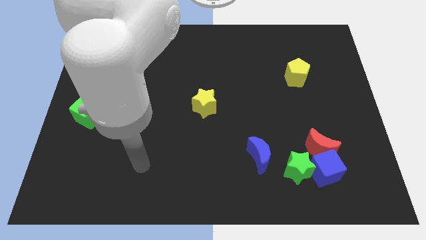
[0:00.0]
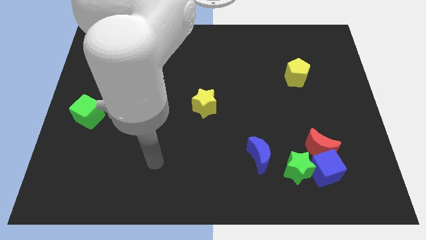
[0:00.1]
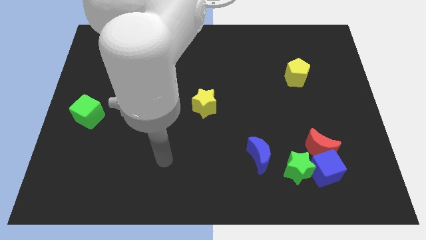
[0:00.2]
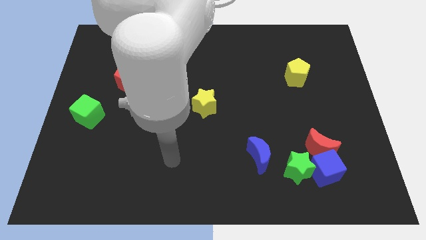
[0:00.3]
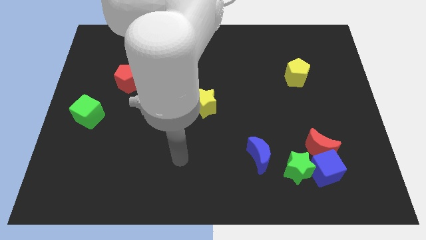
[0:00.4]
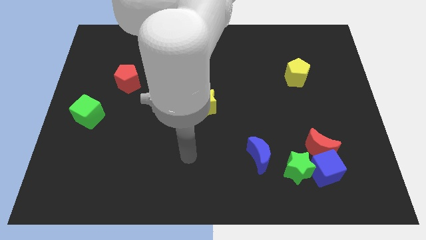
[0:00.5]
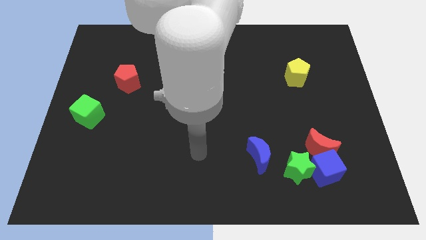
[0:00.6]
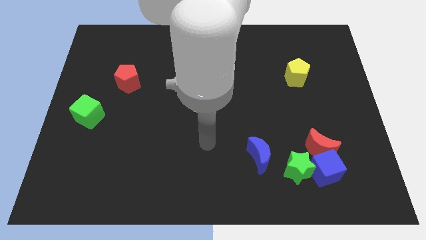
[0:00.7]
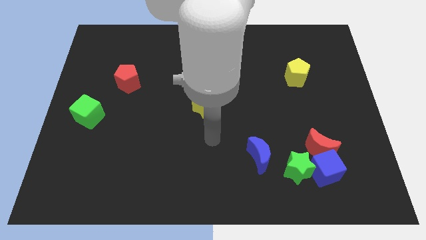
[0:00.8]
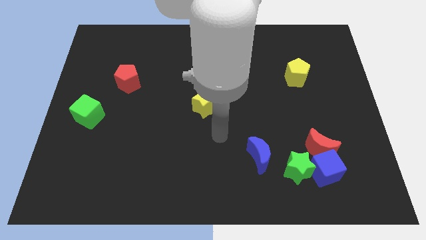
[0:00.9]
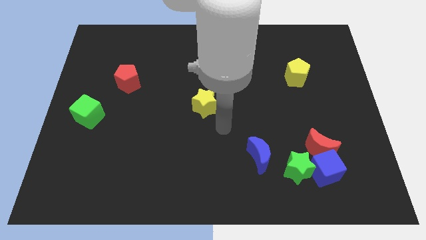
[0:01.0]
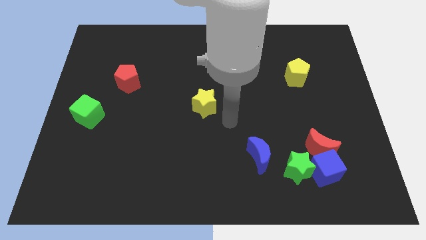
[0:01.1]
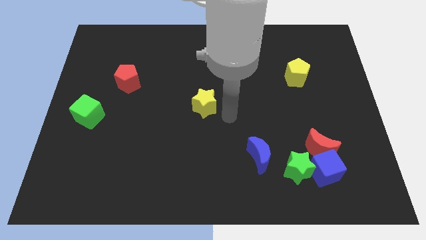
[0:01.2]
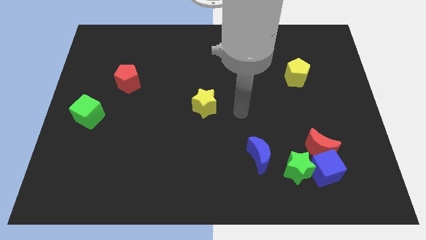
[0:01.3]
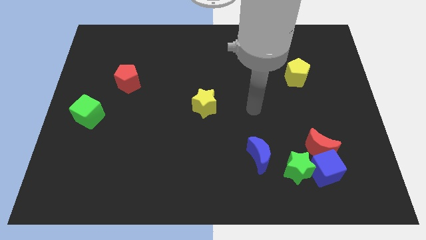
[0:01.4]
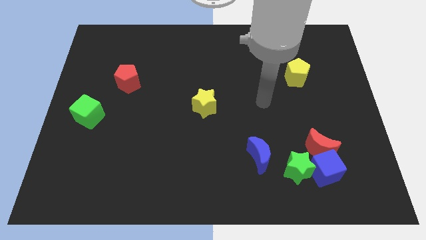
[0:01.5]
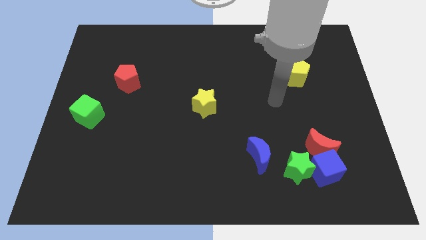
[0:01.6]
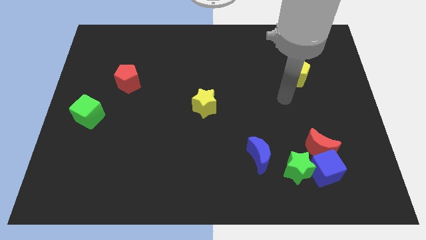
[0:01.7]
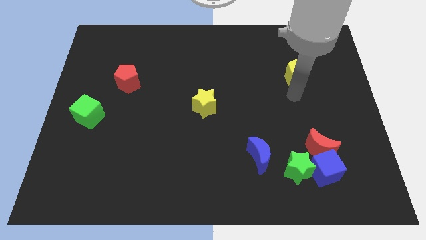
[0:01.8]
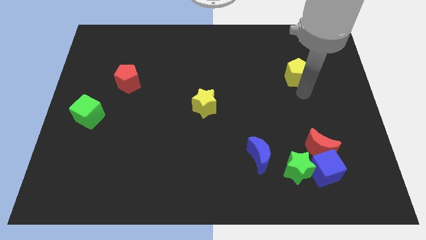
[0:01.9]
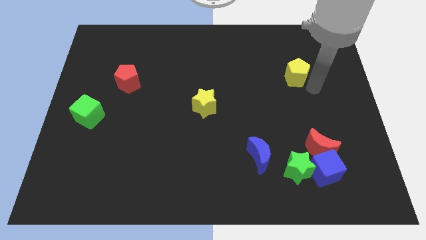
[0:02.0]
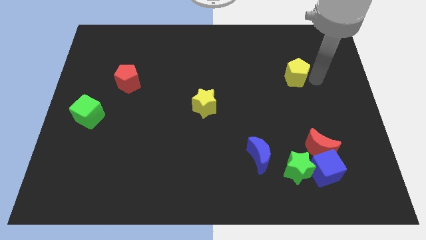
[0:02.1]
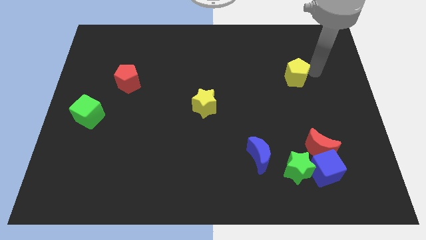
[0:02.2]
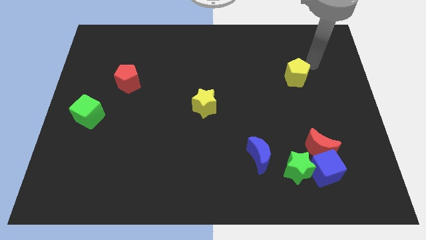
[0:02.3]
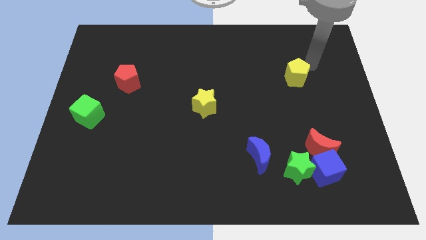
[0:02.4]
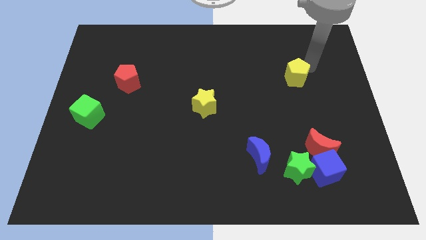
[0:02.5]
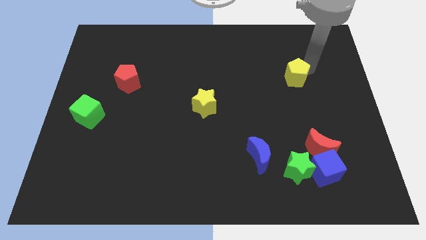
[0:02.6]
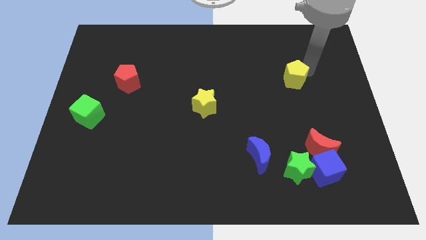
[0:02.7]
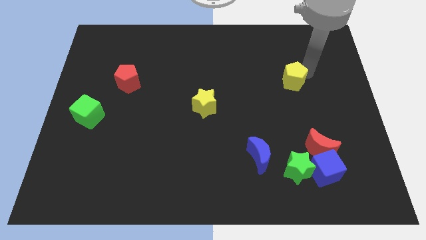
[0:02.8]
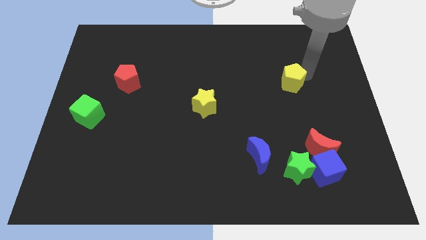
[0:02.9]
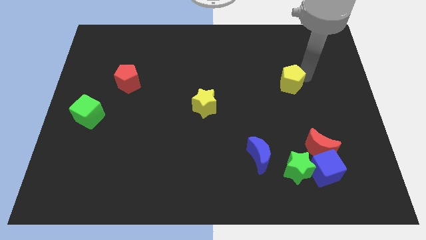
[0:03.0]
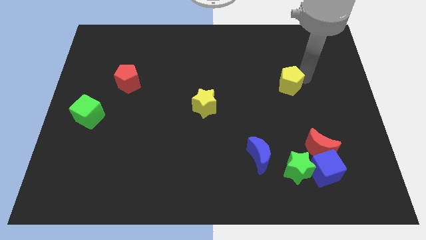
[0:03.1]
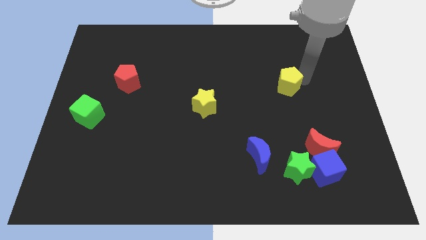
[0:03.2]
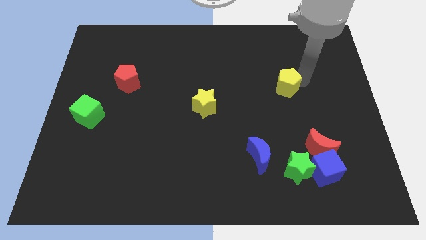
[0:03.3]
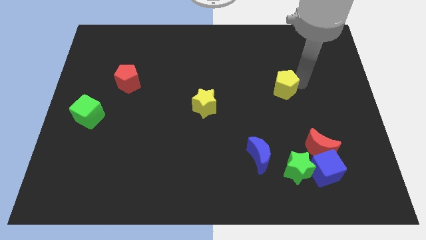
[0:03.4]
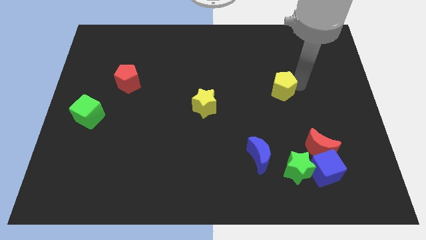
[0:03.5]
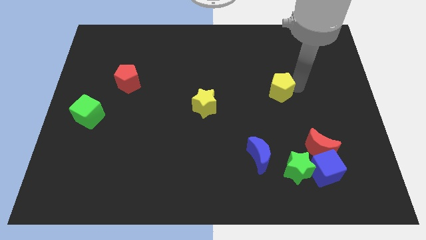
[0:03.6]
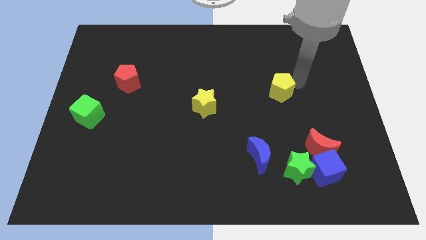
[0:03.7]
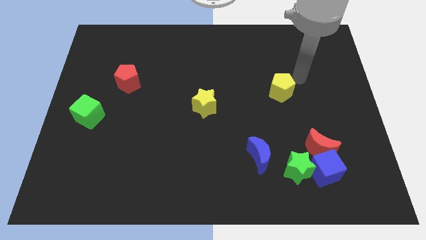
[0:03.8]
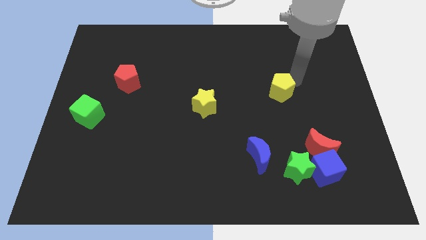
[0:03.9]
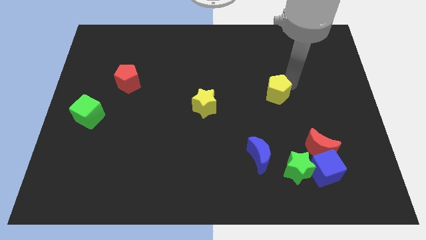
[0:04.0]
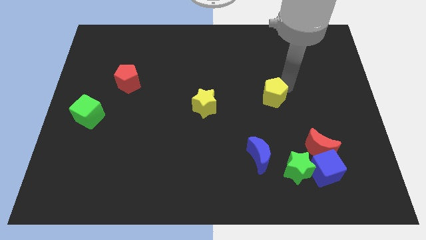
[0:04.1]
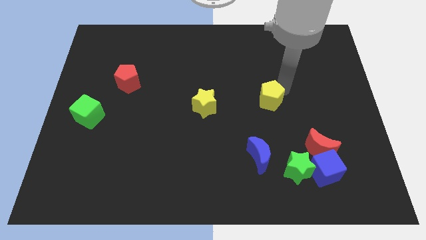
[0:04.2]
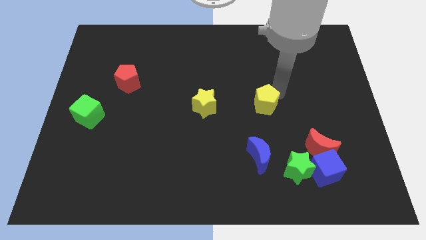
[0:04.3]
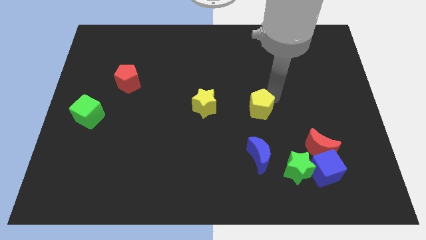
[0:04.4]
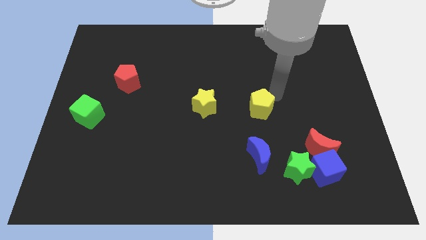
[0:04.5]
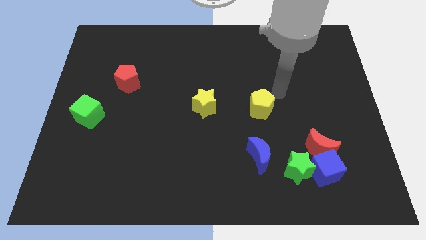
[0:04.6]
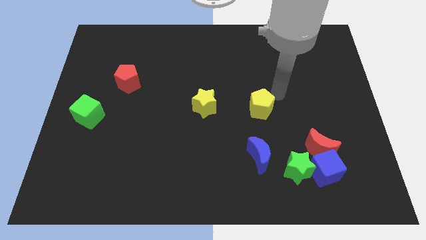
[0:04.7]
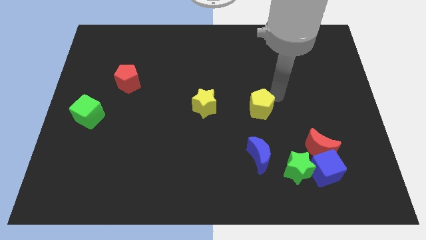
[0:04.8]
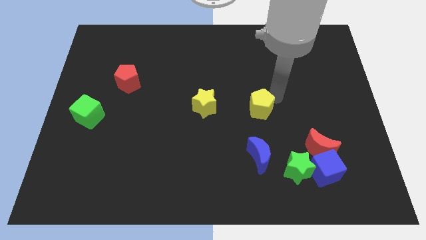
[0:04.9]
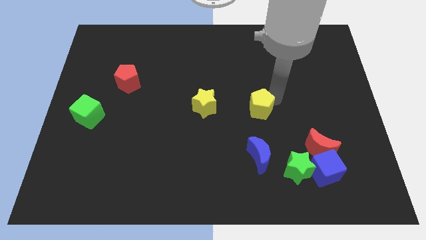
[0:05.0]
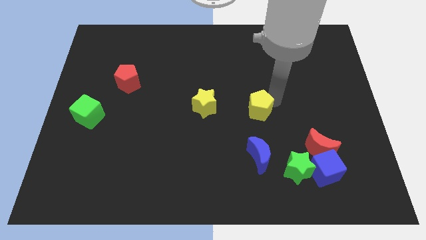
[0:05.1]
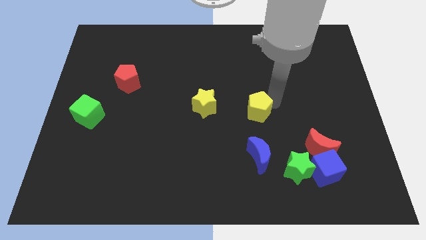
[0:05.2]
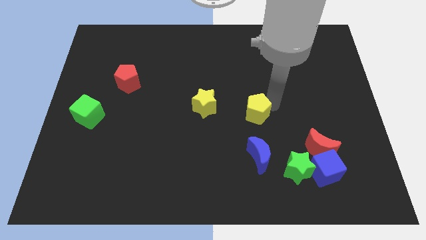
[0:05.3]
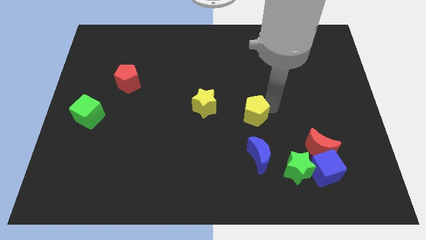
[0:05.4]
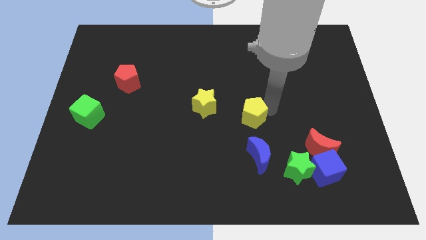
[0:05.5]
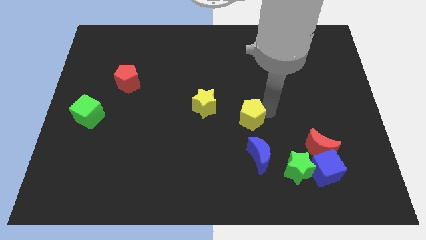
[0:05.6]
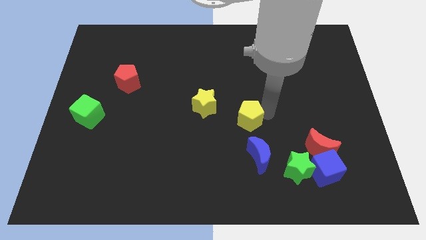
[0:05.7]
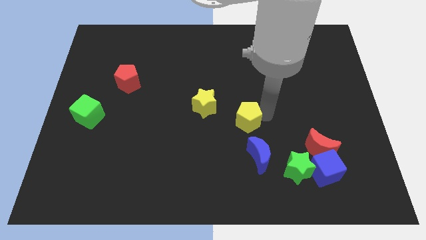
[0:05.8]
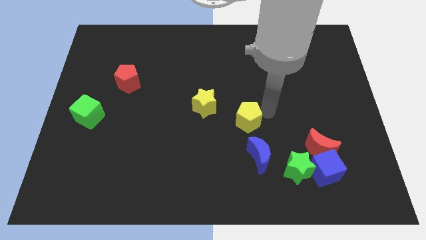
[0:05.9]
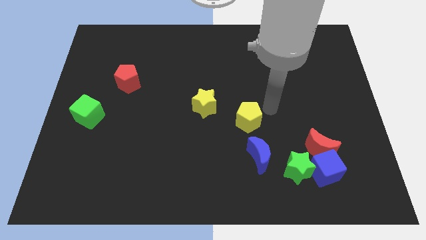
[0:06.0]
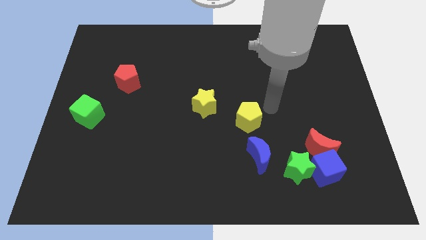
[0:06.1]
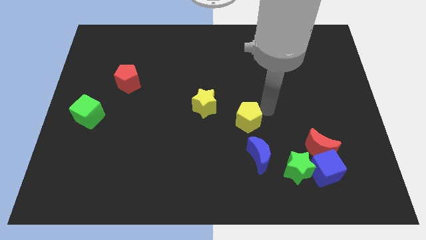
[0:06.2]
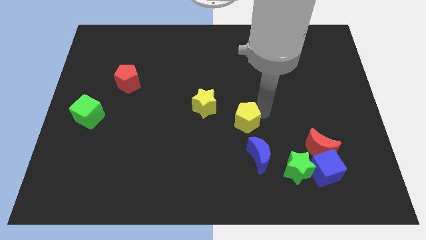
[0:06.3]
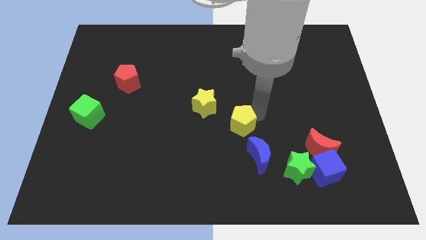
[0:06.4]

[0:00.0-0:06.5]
push the yellow pentagon down and left diagonally

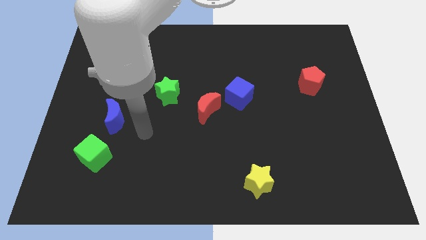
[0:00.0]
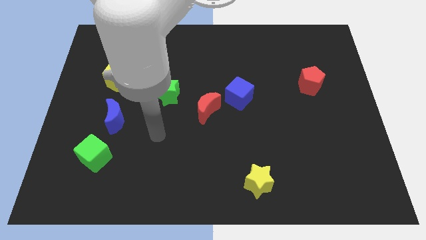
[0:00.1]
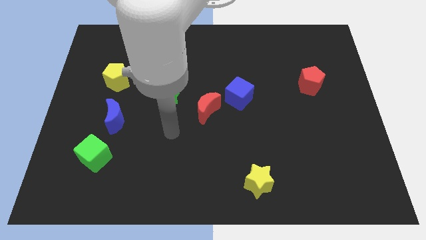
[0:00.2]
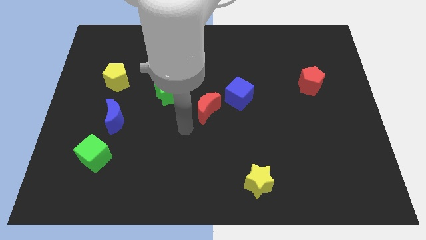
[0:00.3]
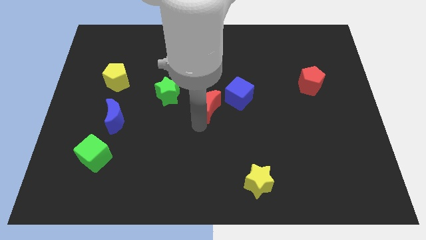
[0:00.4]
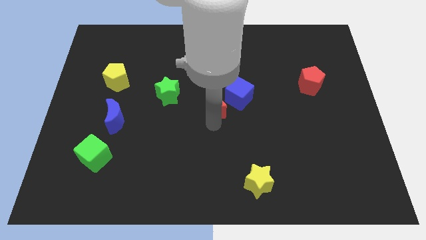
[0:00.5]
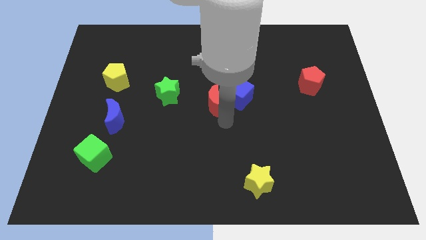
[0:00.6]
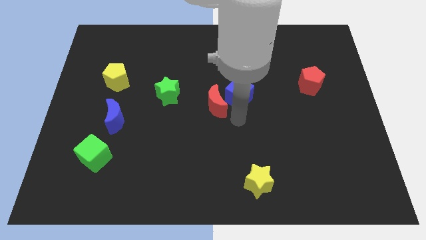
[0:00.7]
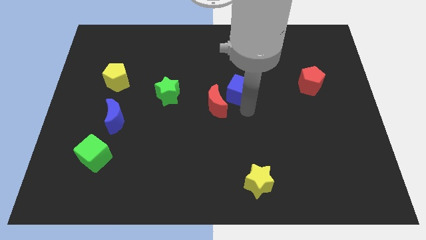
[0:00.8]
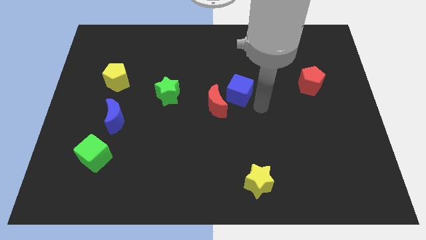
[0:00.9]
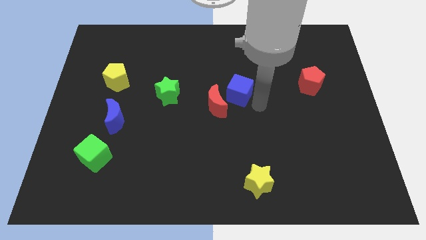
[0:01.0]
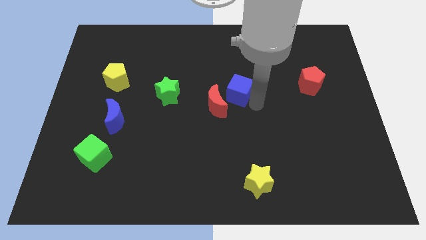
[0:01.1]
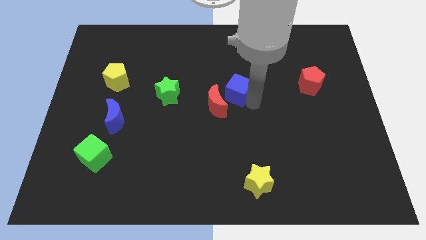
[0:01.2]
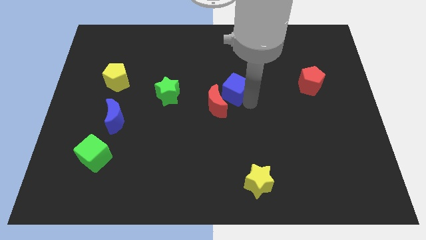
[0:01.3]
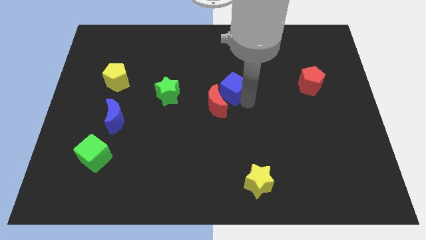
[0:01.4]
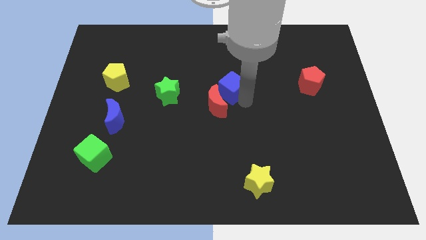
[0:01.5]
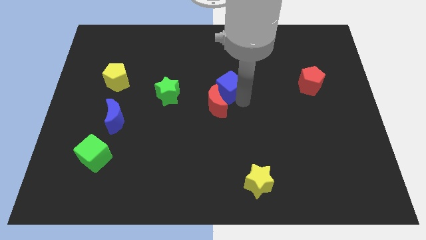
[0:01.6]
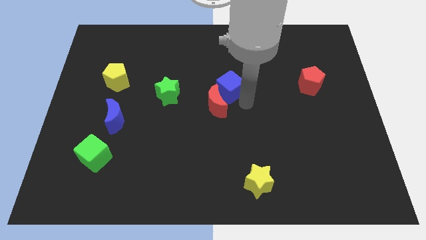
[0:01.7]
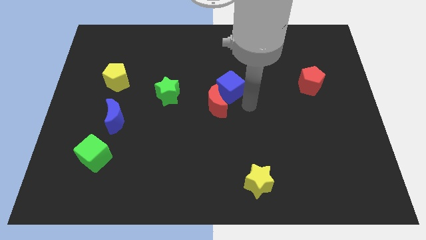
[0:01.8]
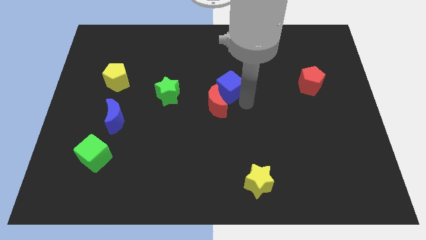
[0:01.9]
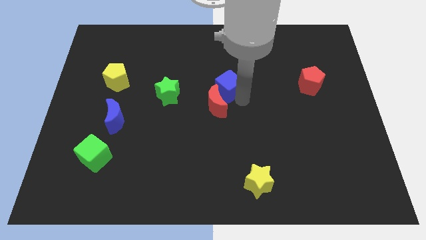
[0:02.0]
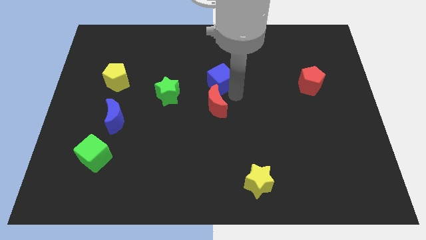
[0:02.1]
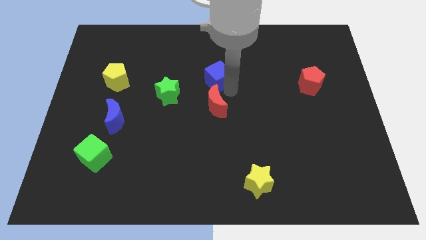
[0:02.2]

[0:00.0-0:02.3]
slightly push the blue cube upwards and then to the left
